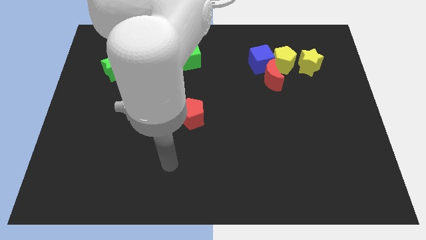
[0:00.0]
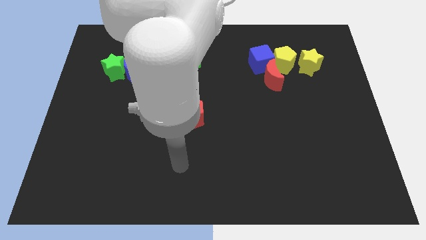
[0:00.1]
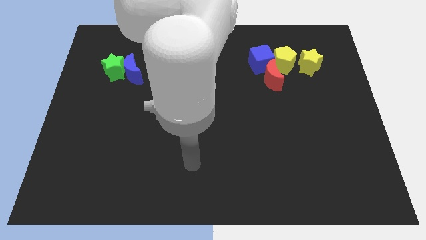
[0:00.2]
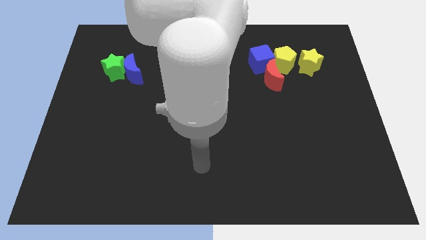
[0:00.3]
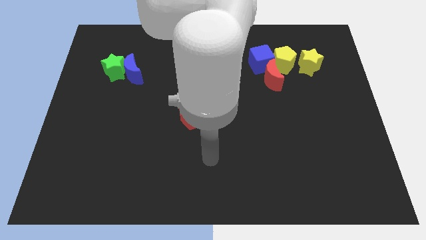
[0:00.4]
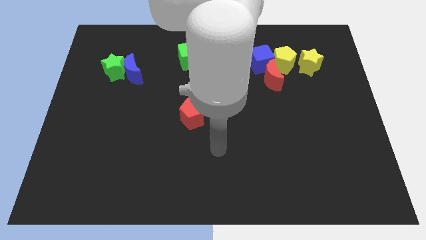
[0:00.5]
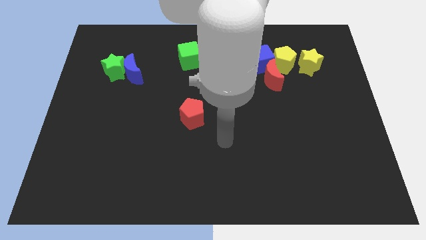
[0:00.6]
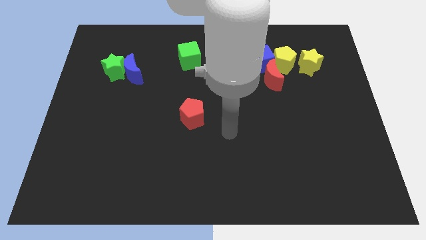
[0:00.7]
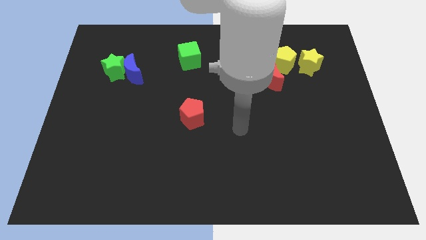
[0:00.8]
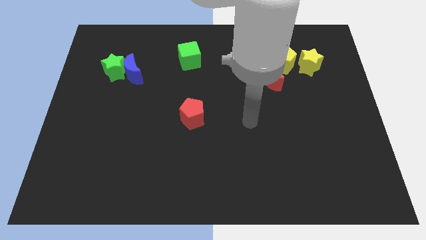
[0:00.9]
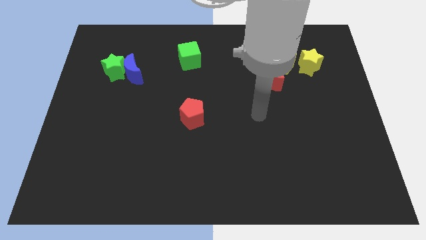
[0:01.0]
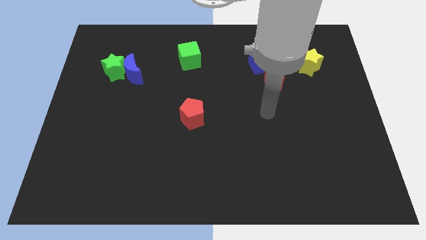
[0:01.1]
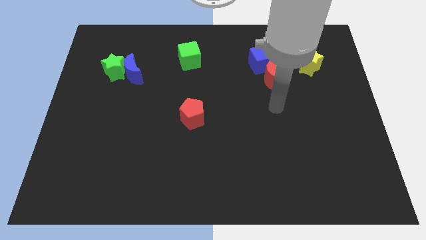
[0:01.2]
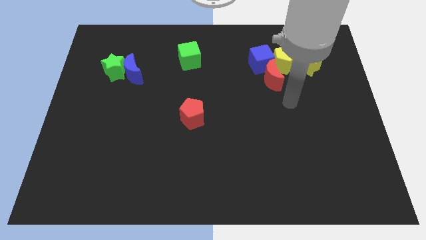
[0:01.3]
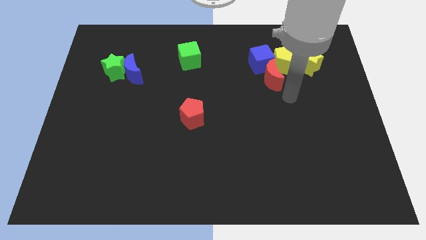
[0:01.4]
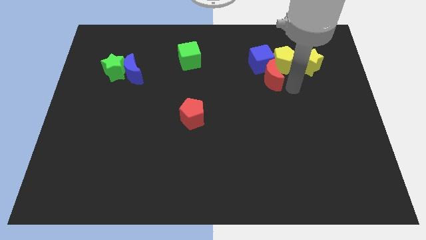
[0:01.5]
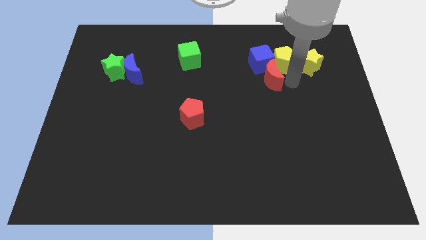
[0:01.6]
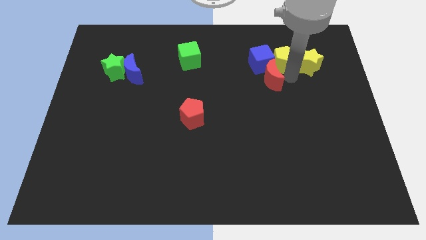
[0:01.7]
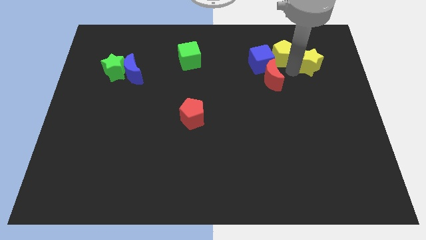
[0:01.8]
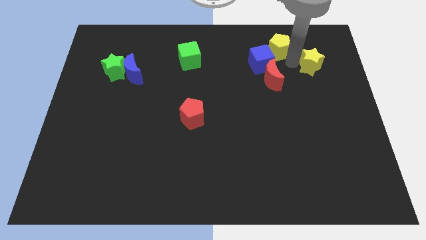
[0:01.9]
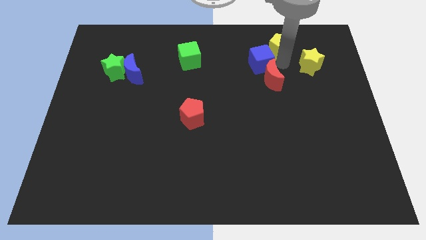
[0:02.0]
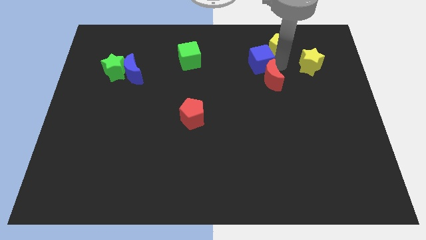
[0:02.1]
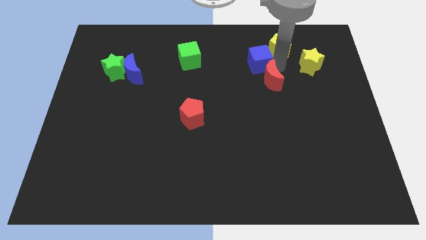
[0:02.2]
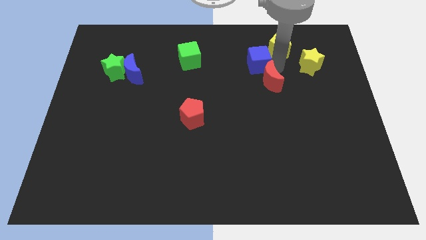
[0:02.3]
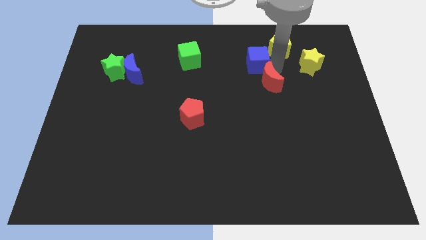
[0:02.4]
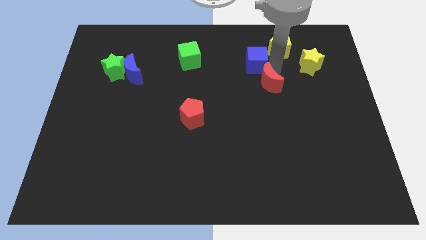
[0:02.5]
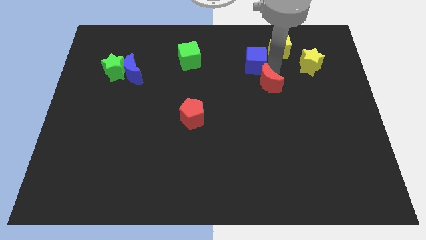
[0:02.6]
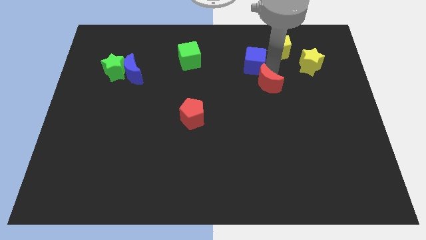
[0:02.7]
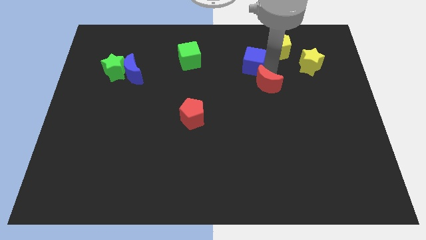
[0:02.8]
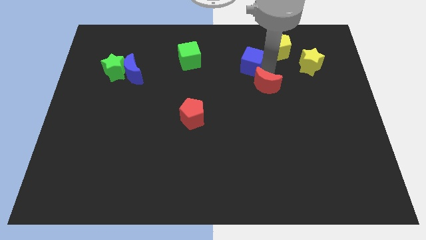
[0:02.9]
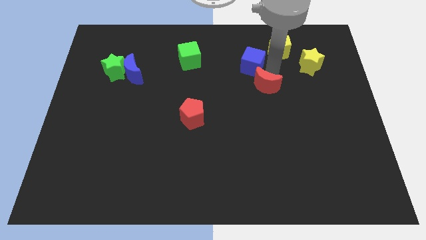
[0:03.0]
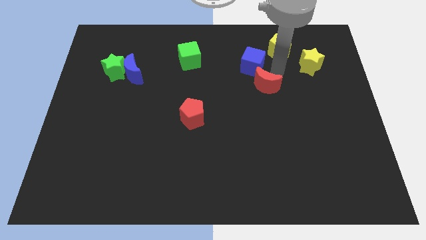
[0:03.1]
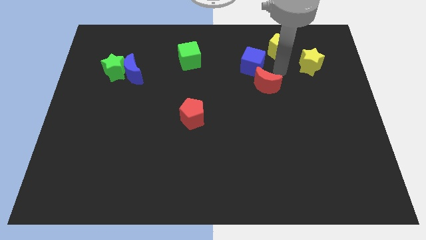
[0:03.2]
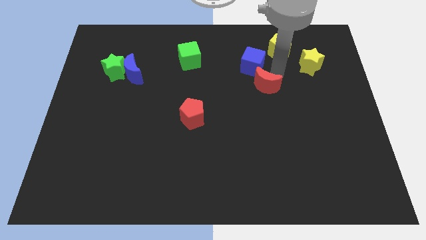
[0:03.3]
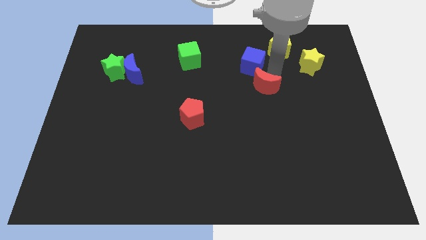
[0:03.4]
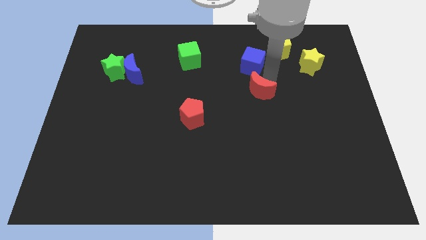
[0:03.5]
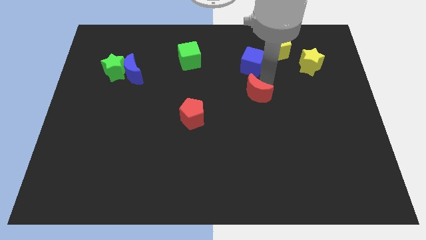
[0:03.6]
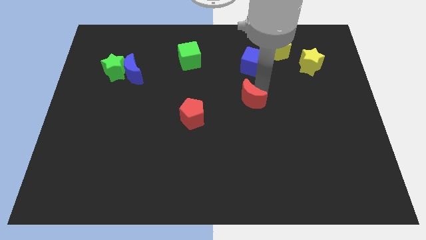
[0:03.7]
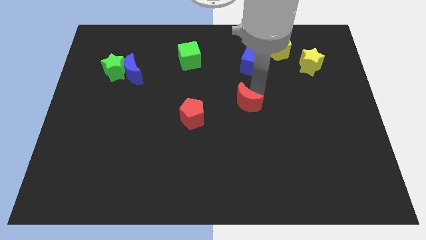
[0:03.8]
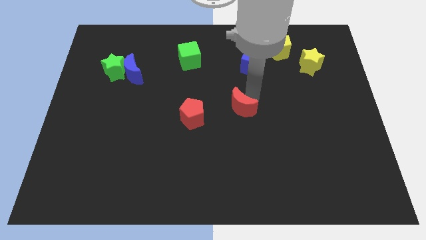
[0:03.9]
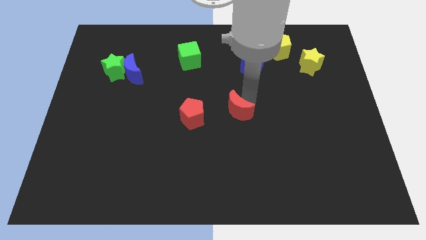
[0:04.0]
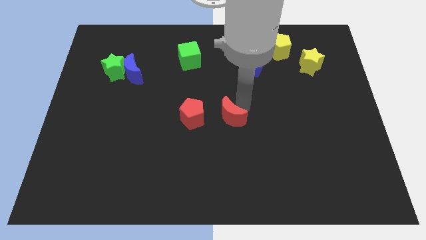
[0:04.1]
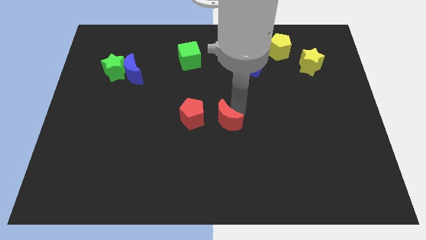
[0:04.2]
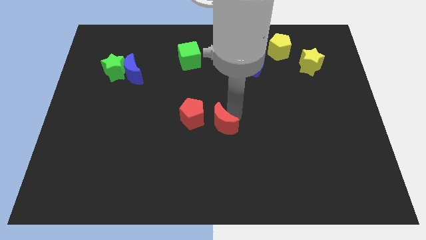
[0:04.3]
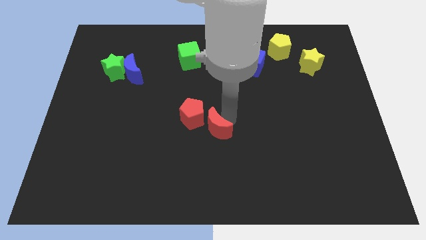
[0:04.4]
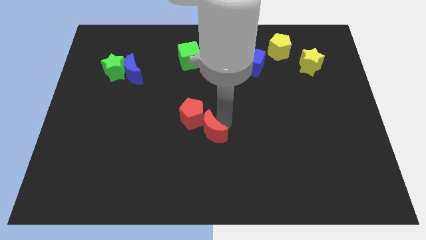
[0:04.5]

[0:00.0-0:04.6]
move the red moon below the red pentagon

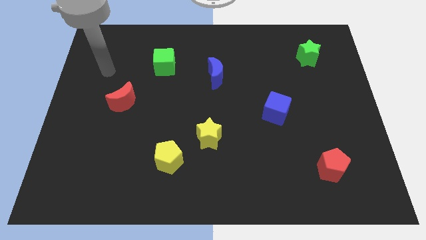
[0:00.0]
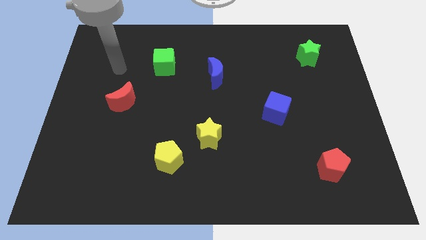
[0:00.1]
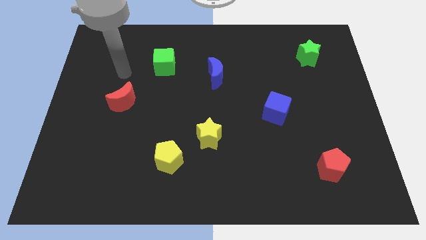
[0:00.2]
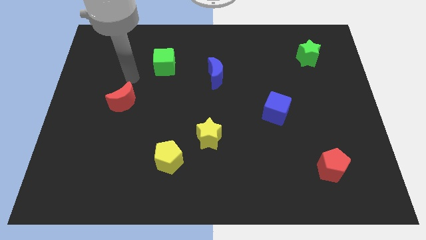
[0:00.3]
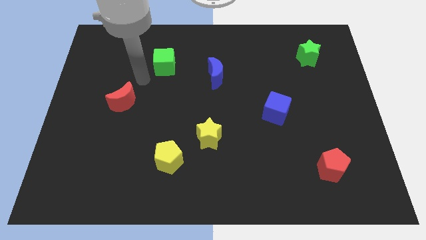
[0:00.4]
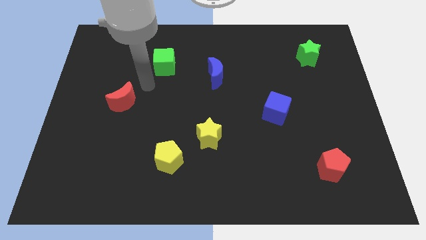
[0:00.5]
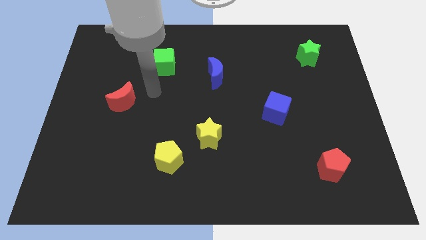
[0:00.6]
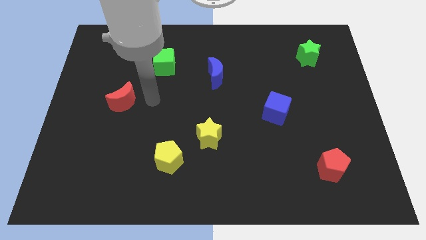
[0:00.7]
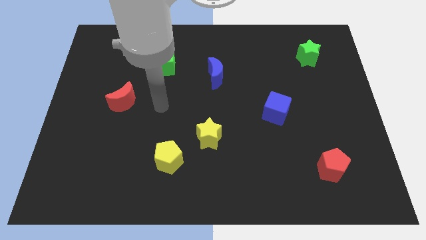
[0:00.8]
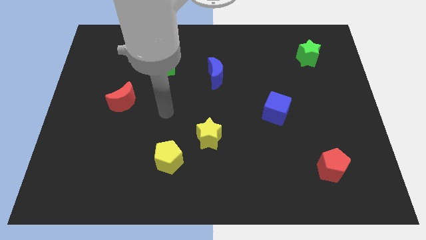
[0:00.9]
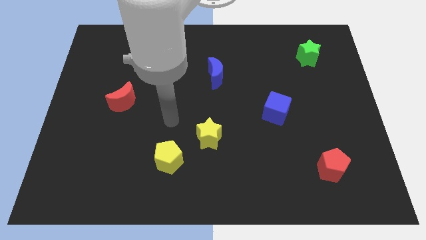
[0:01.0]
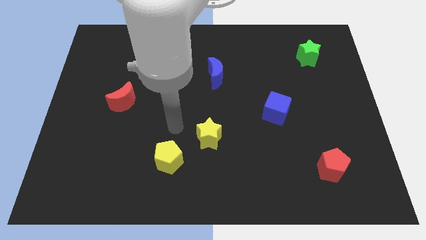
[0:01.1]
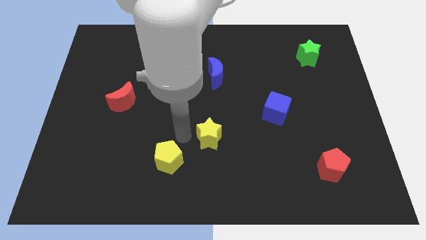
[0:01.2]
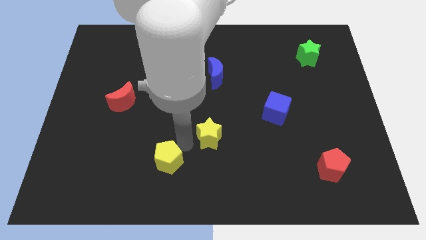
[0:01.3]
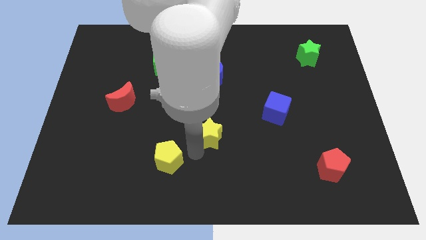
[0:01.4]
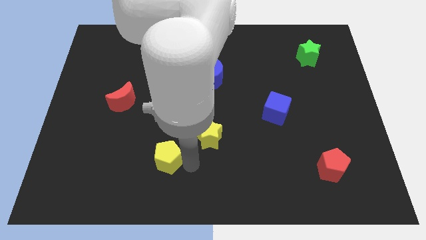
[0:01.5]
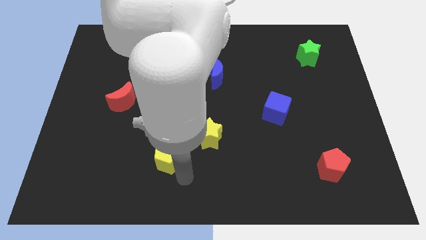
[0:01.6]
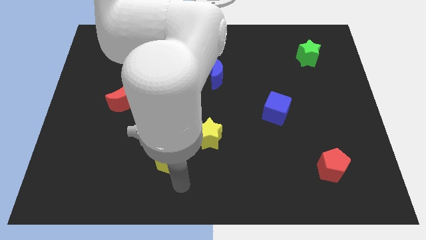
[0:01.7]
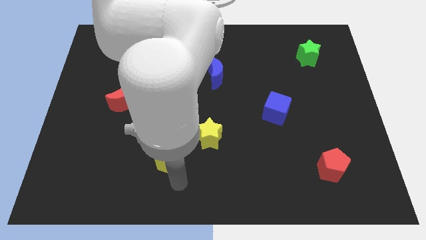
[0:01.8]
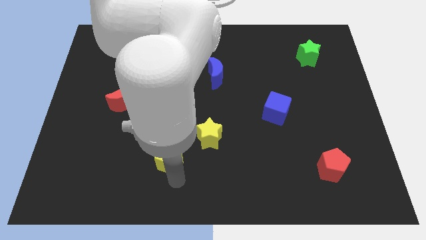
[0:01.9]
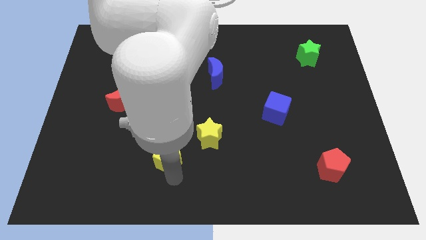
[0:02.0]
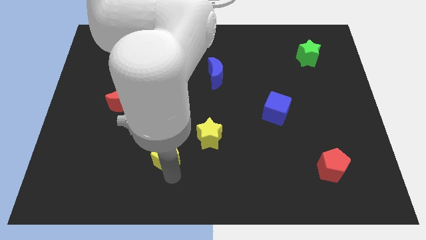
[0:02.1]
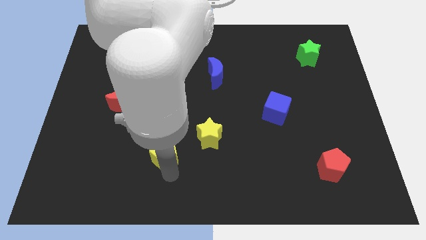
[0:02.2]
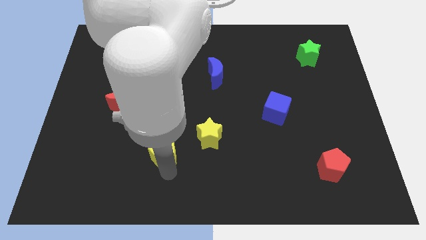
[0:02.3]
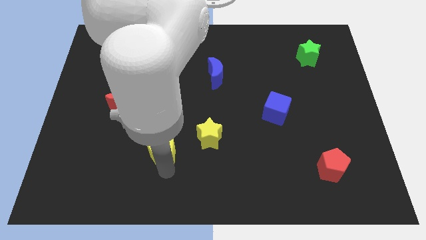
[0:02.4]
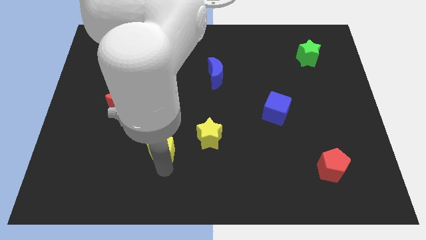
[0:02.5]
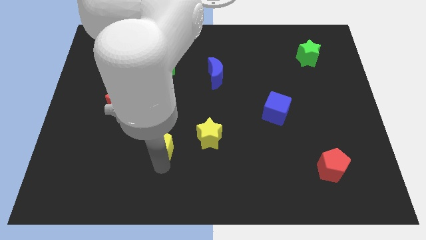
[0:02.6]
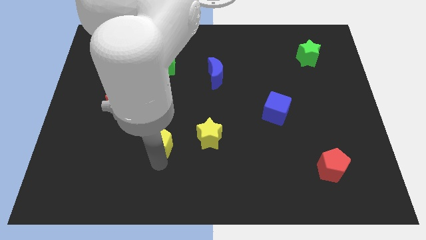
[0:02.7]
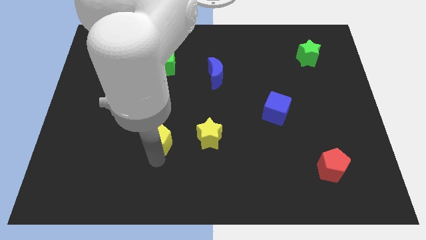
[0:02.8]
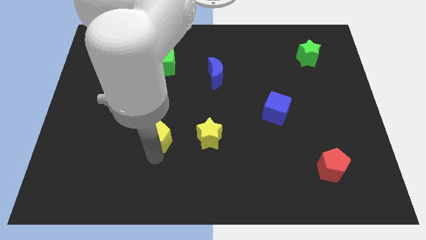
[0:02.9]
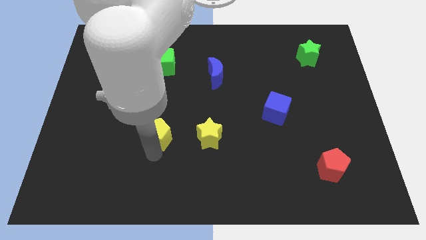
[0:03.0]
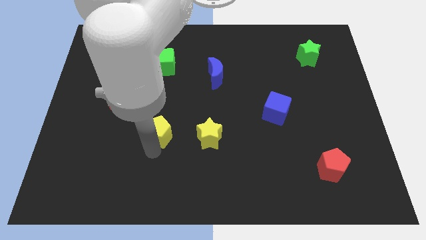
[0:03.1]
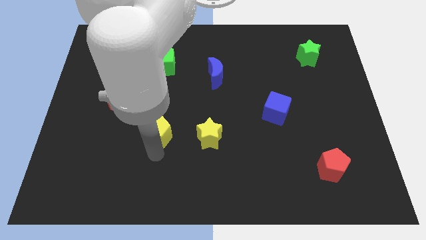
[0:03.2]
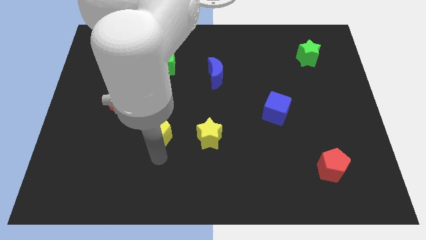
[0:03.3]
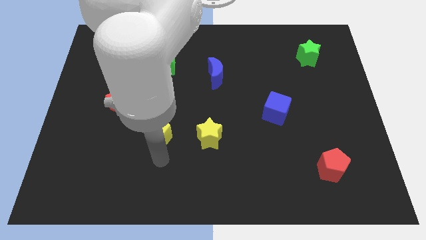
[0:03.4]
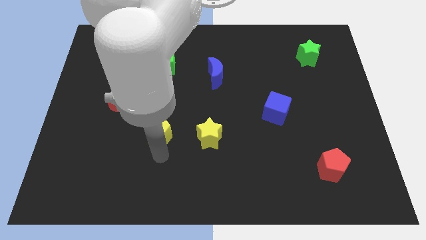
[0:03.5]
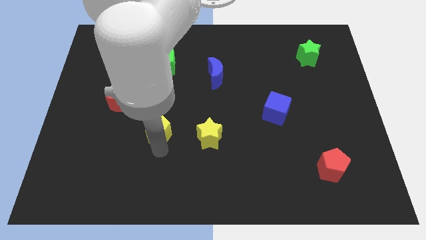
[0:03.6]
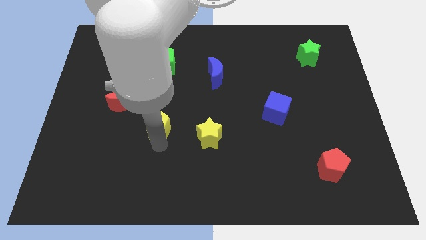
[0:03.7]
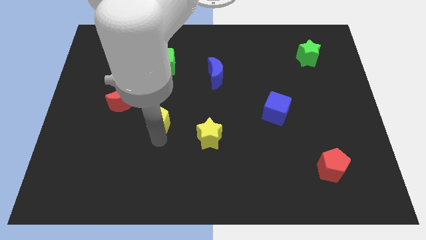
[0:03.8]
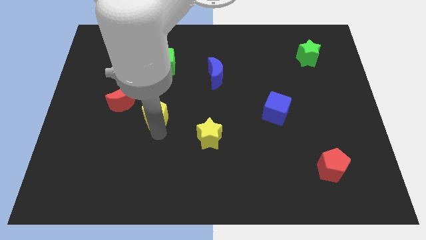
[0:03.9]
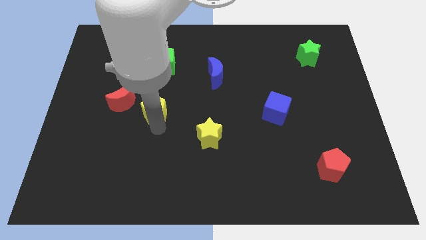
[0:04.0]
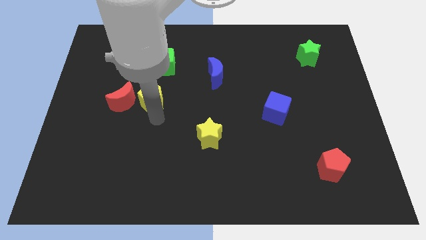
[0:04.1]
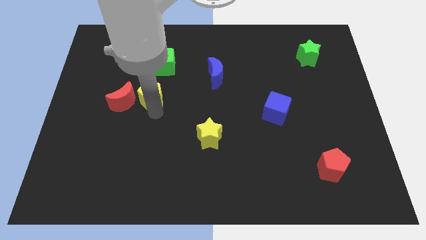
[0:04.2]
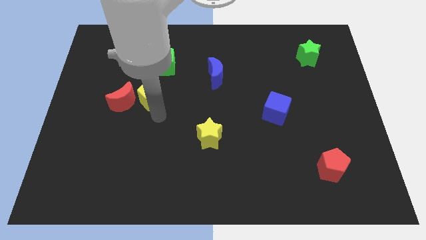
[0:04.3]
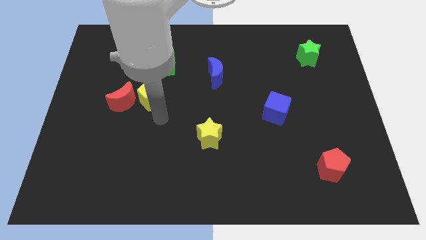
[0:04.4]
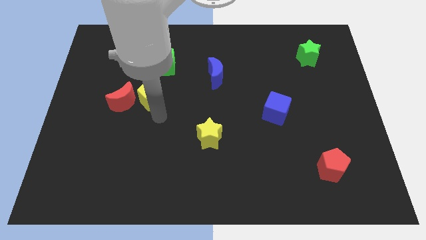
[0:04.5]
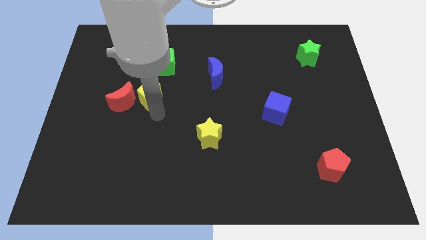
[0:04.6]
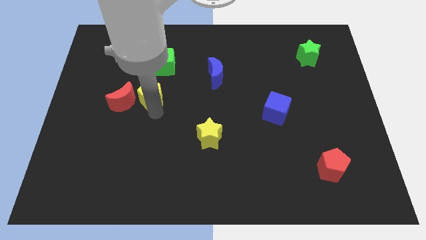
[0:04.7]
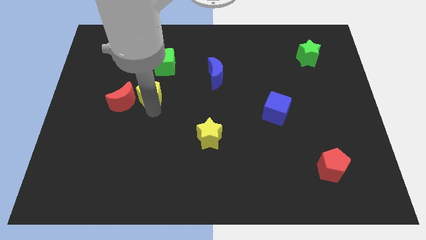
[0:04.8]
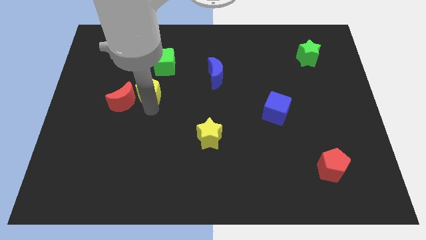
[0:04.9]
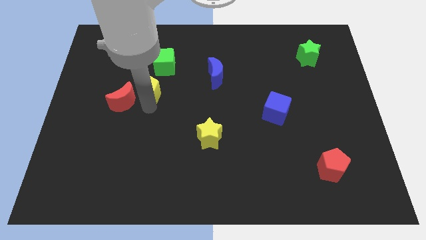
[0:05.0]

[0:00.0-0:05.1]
slide the yellow pentagon diagonally down and to the left of the green cube
